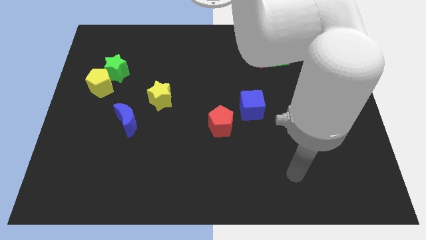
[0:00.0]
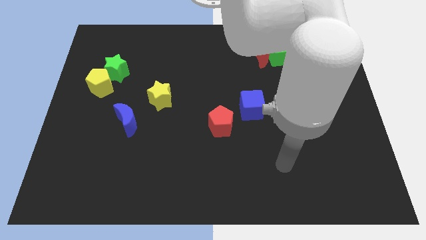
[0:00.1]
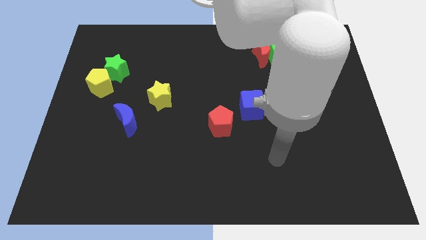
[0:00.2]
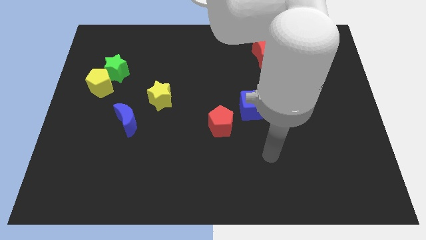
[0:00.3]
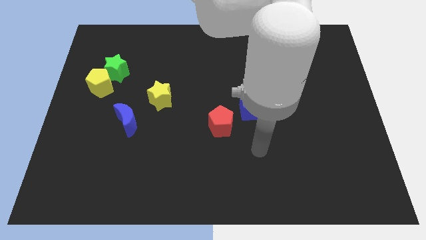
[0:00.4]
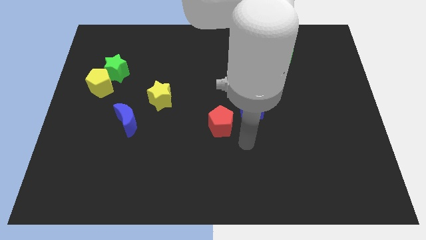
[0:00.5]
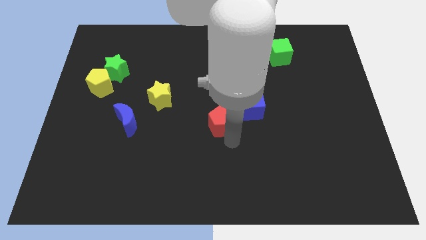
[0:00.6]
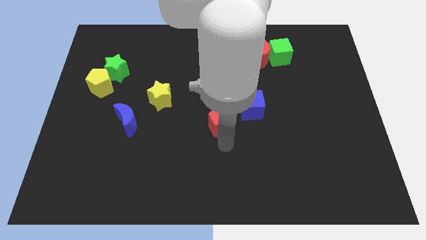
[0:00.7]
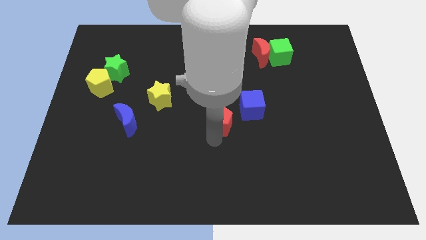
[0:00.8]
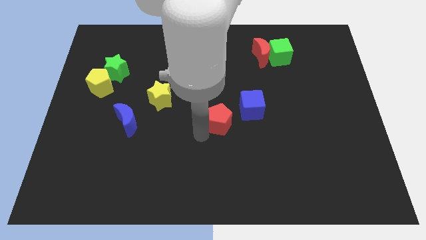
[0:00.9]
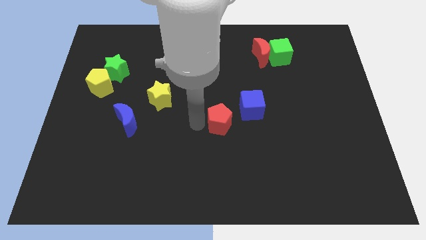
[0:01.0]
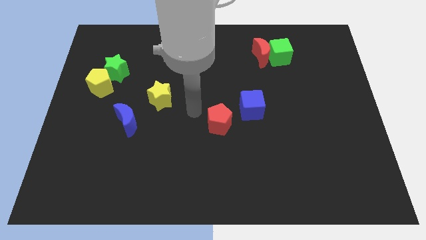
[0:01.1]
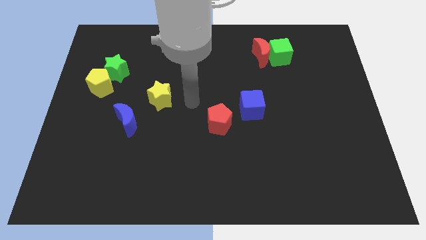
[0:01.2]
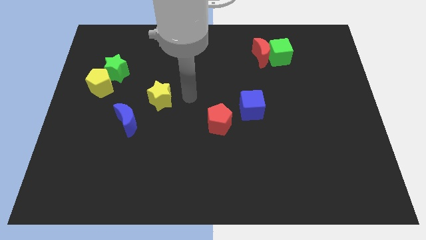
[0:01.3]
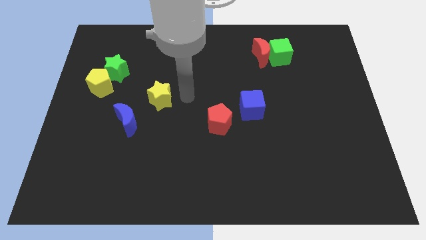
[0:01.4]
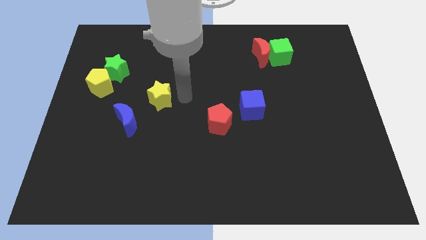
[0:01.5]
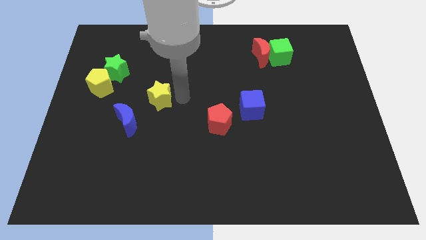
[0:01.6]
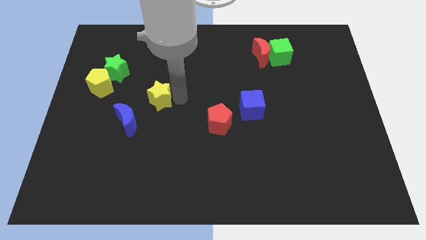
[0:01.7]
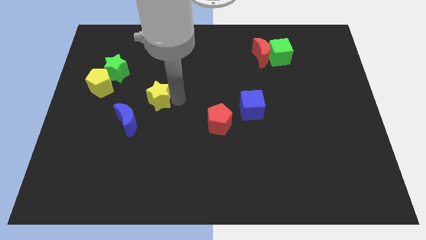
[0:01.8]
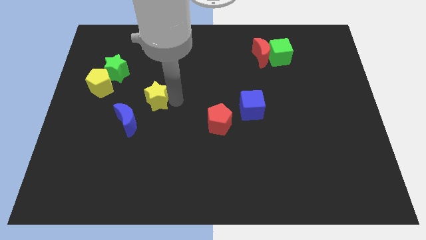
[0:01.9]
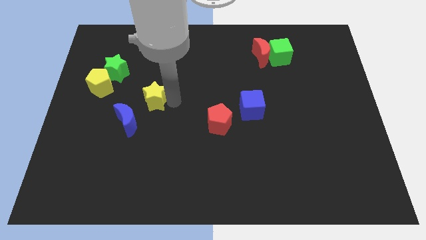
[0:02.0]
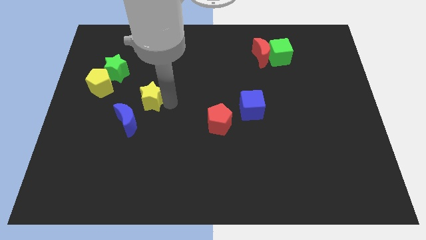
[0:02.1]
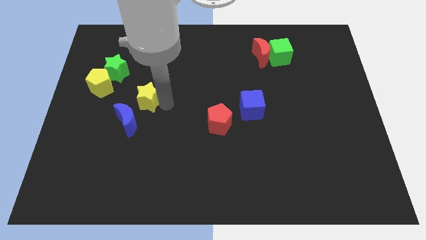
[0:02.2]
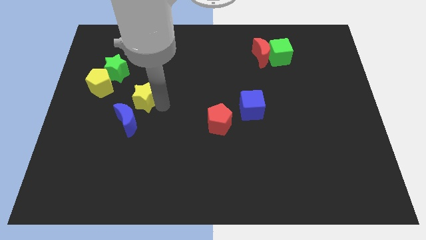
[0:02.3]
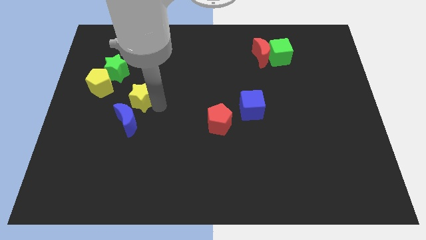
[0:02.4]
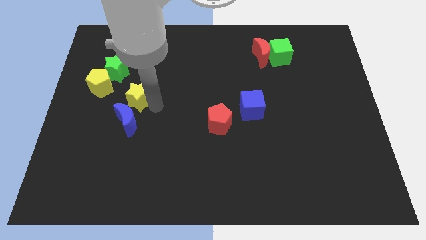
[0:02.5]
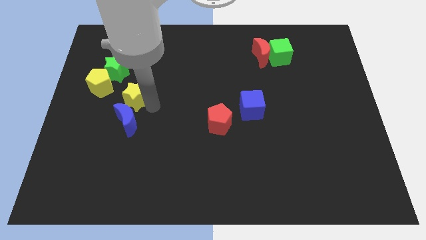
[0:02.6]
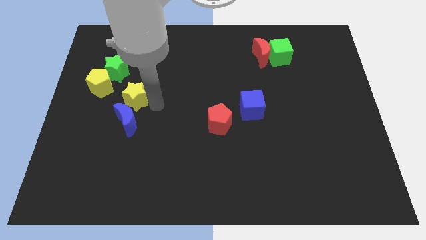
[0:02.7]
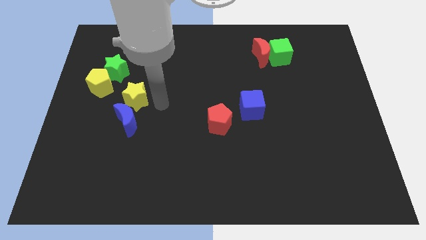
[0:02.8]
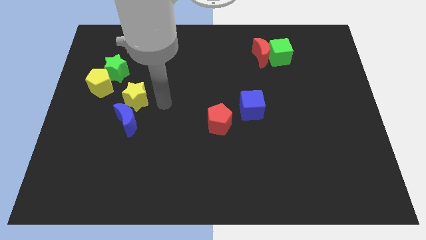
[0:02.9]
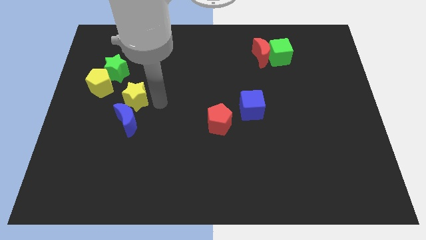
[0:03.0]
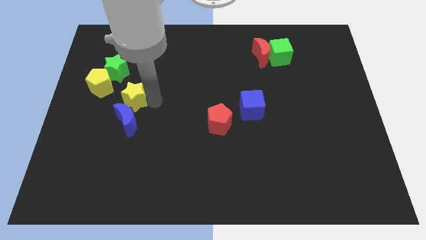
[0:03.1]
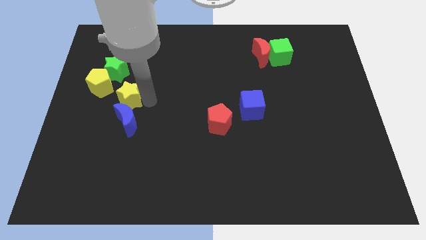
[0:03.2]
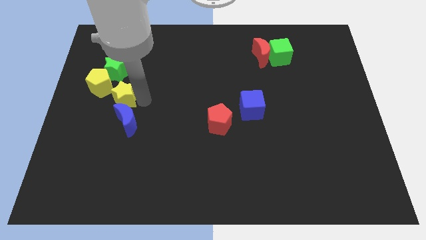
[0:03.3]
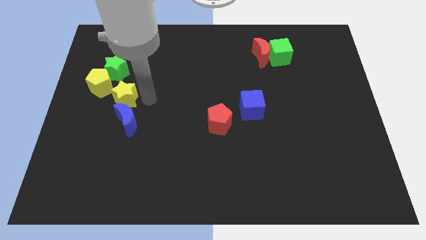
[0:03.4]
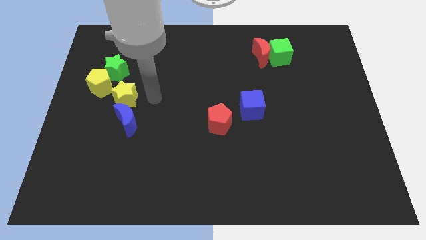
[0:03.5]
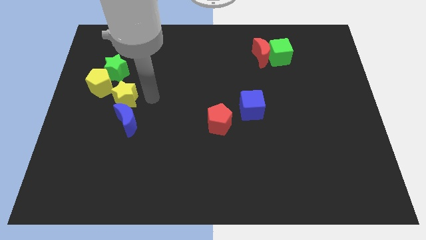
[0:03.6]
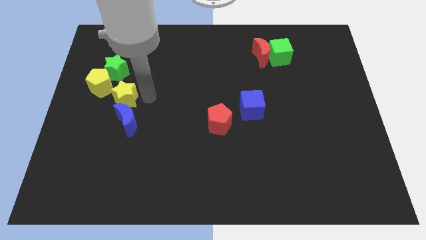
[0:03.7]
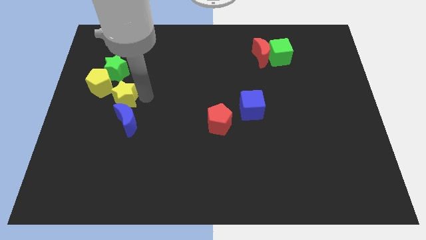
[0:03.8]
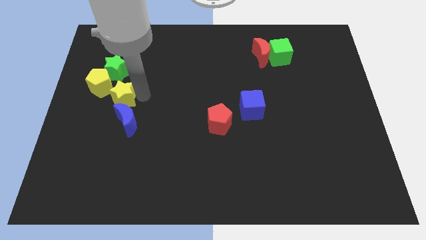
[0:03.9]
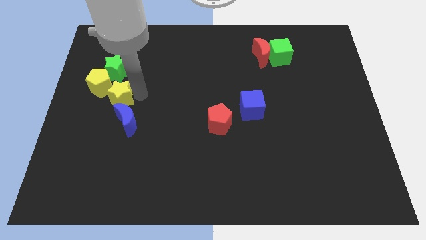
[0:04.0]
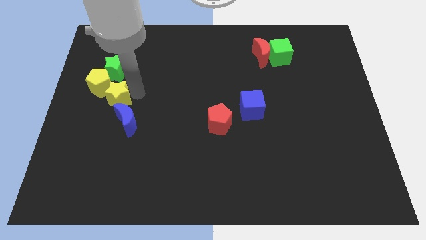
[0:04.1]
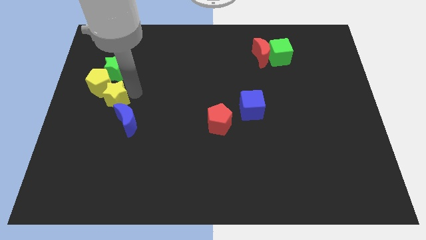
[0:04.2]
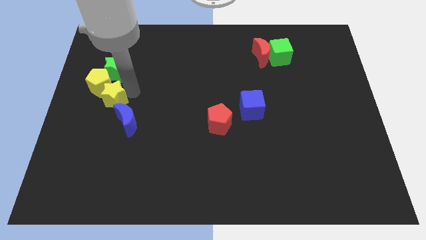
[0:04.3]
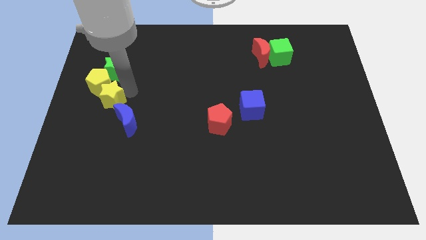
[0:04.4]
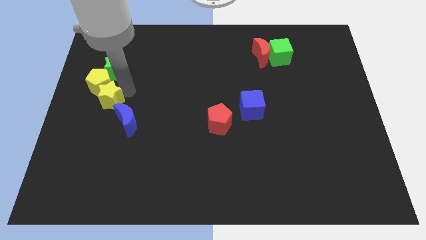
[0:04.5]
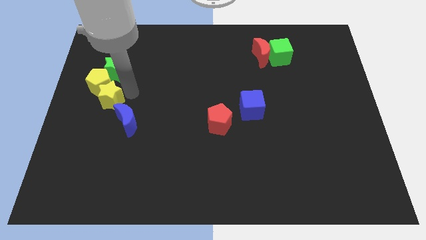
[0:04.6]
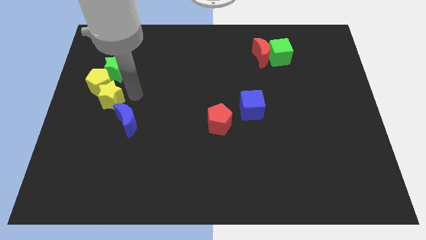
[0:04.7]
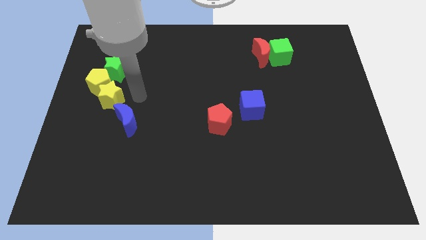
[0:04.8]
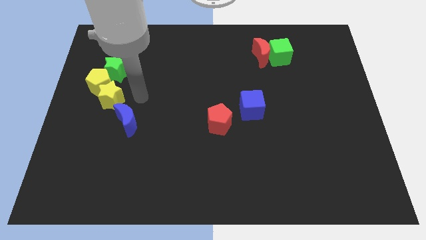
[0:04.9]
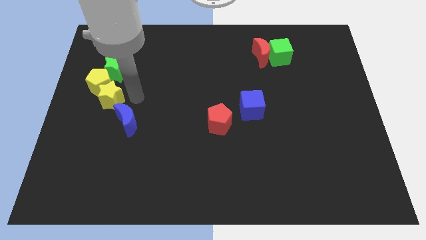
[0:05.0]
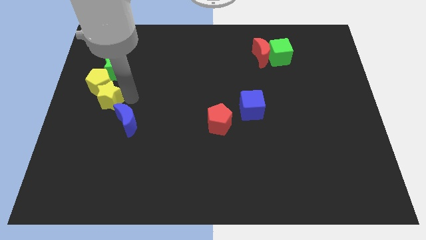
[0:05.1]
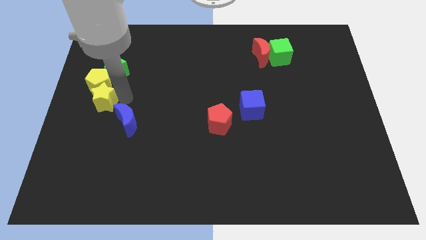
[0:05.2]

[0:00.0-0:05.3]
slide the yellow star to the left side of the board

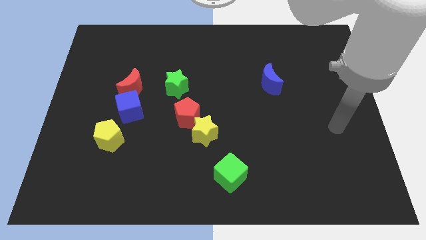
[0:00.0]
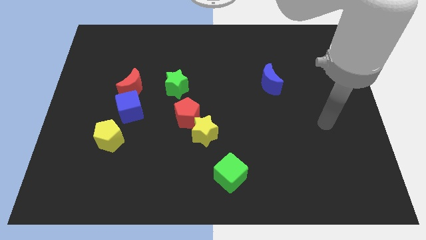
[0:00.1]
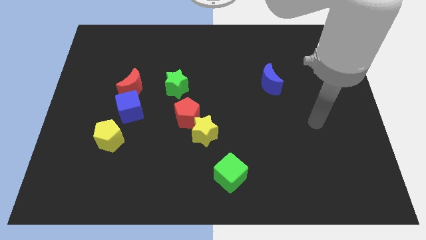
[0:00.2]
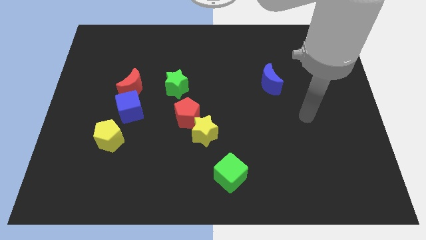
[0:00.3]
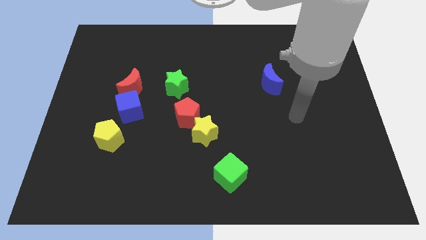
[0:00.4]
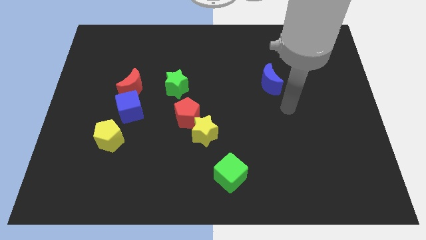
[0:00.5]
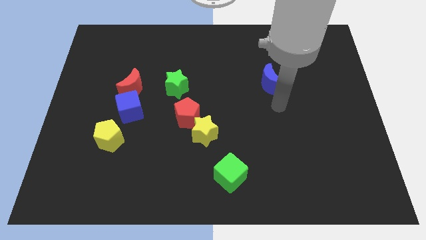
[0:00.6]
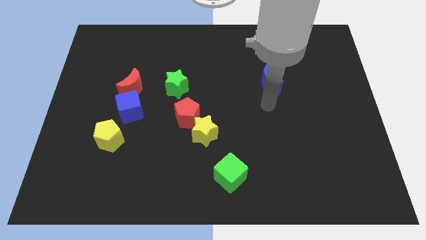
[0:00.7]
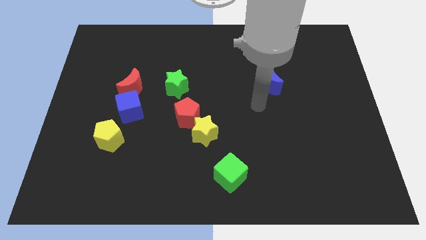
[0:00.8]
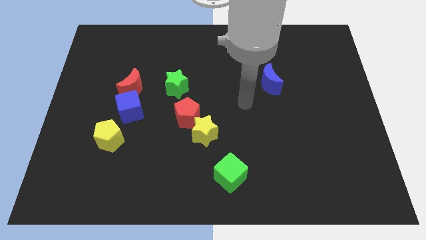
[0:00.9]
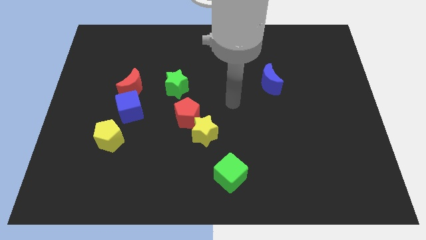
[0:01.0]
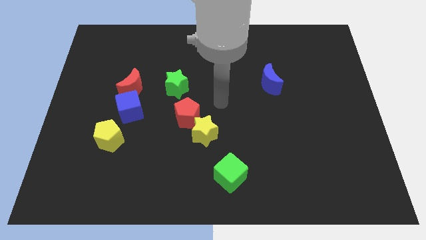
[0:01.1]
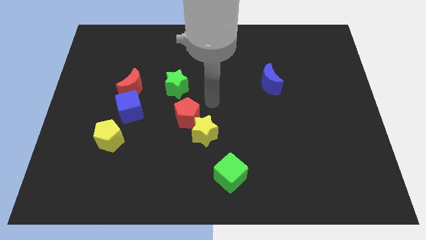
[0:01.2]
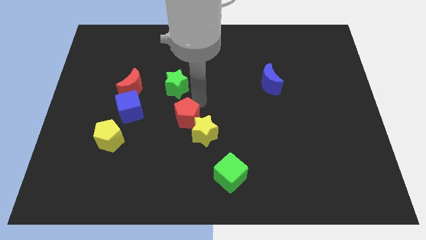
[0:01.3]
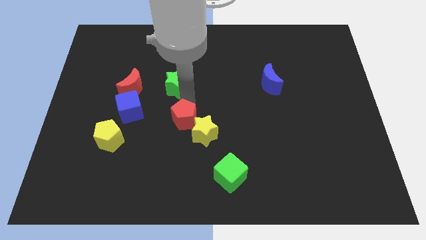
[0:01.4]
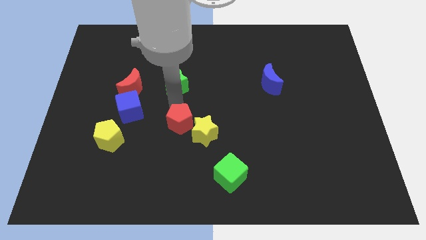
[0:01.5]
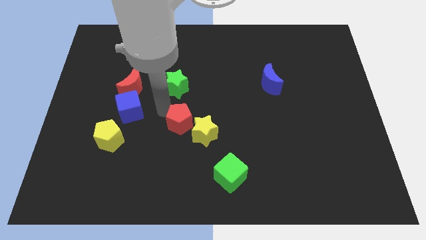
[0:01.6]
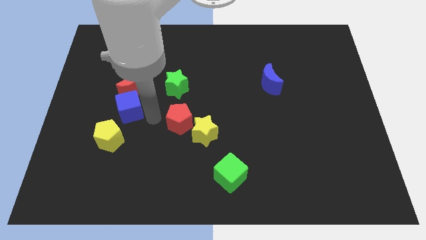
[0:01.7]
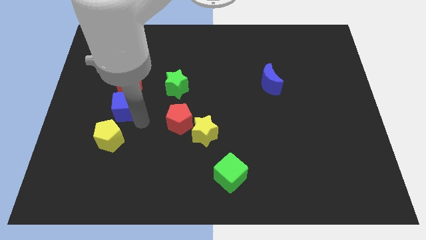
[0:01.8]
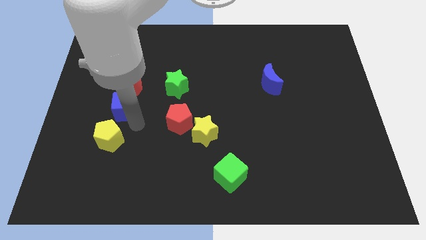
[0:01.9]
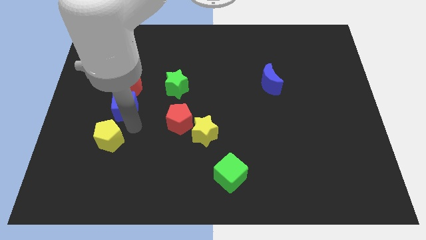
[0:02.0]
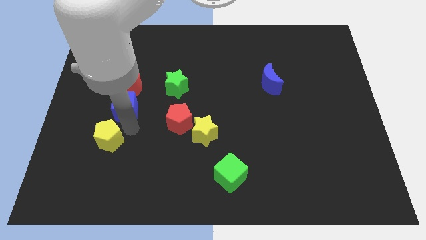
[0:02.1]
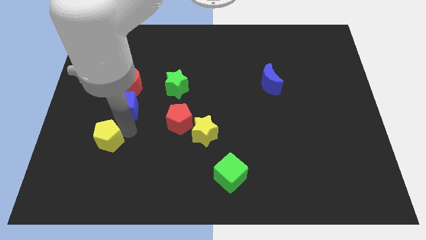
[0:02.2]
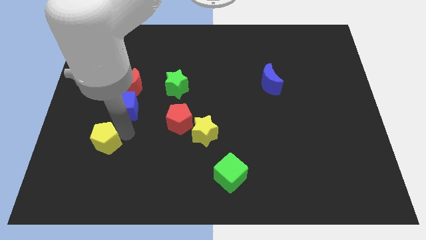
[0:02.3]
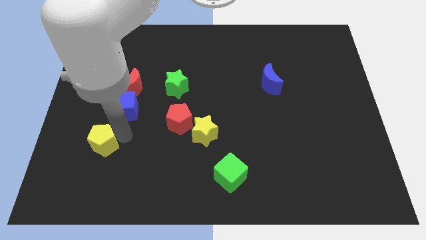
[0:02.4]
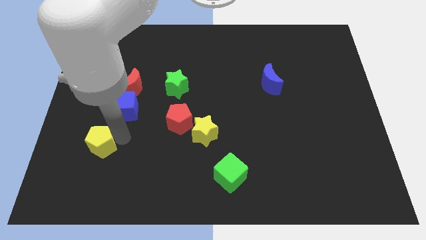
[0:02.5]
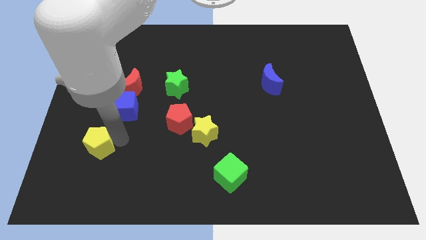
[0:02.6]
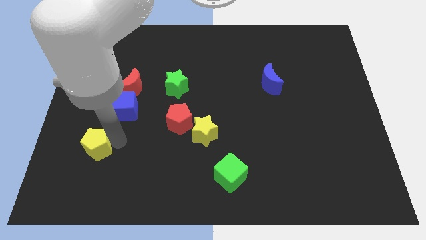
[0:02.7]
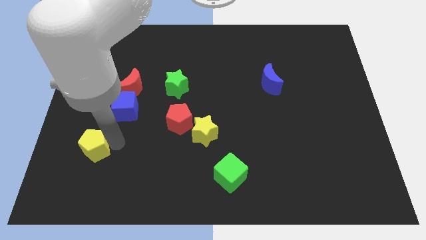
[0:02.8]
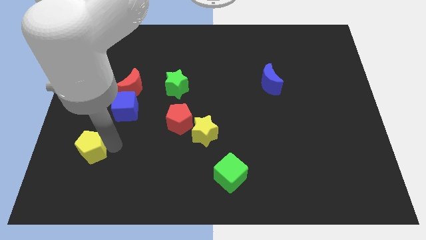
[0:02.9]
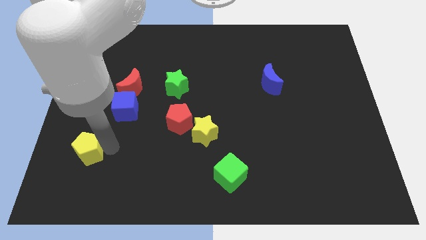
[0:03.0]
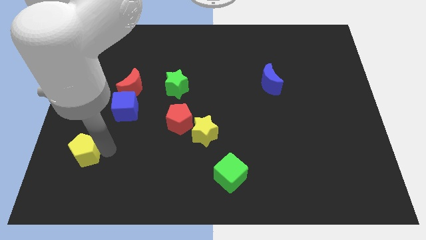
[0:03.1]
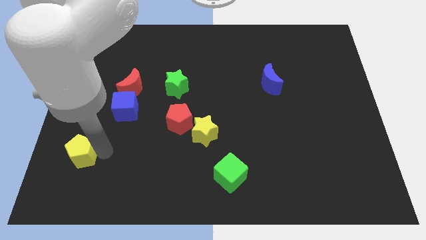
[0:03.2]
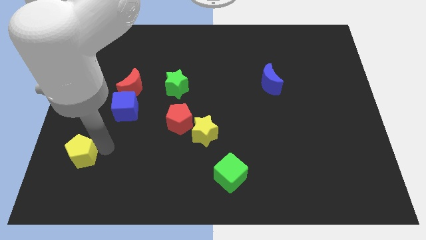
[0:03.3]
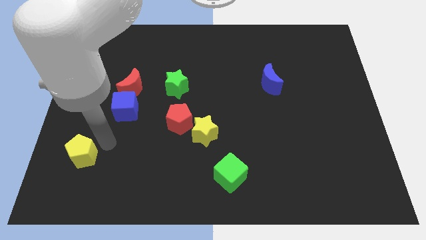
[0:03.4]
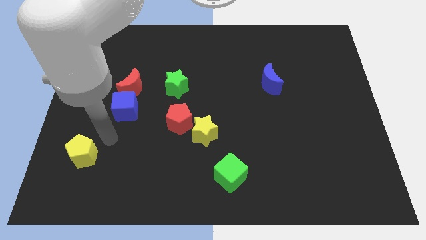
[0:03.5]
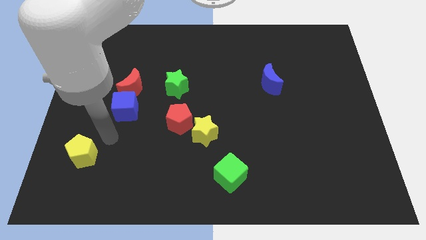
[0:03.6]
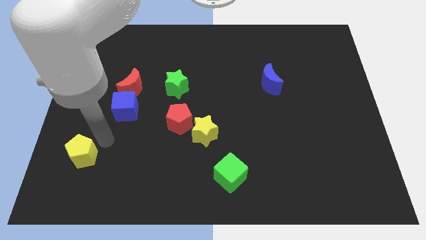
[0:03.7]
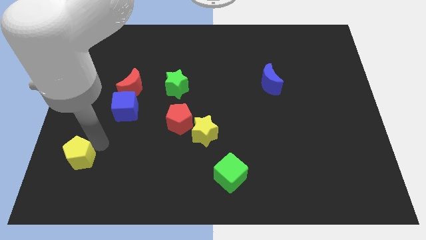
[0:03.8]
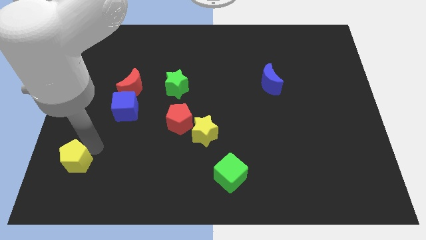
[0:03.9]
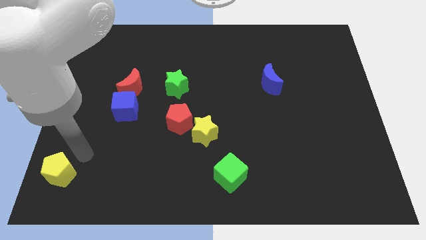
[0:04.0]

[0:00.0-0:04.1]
move the yellow pentagon to the lower left corner
